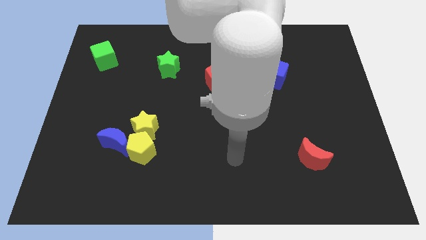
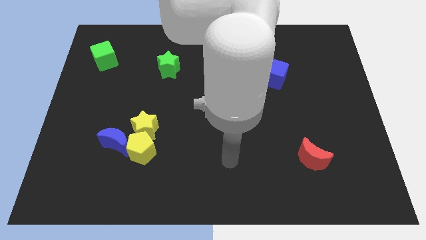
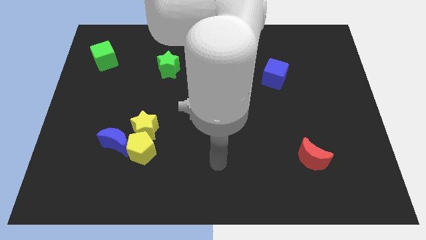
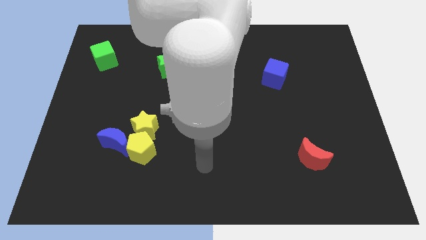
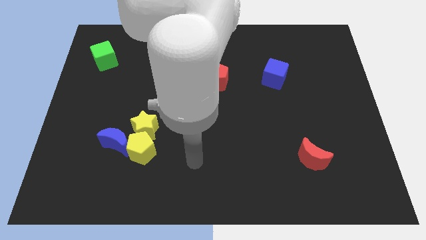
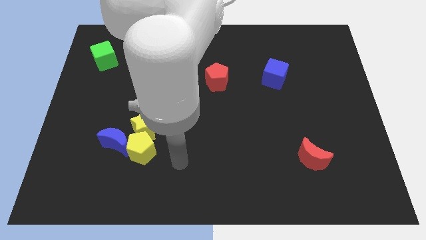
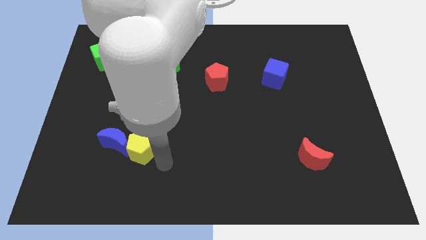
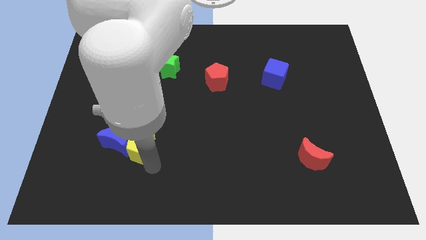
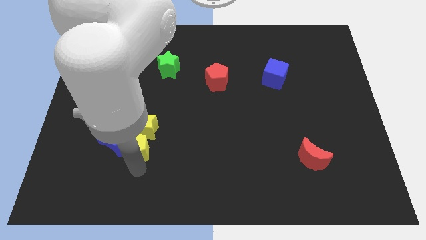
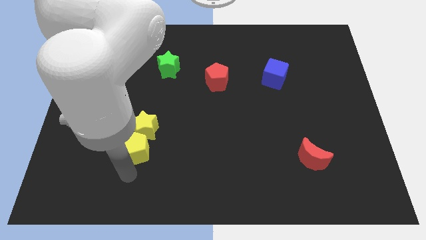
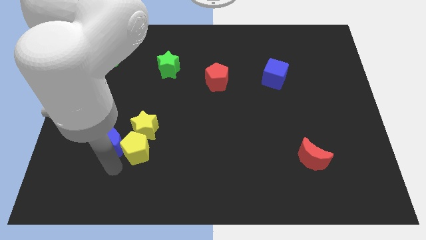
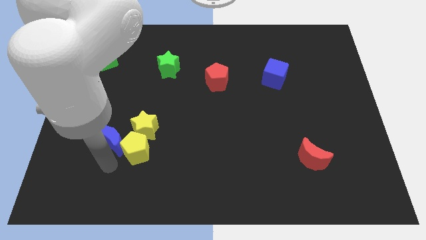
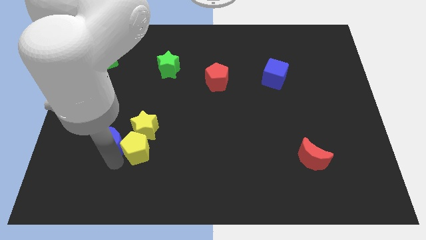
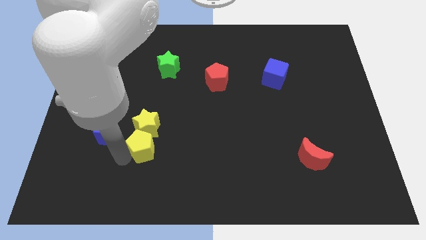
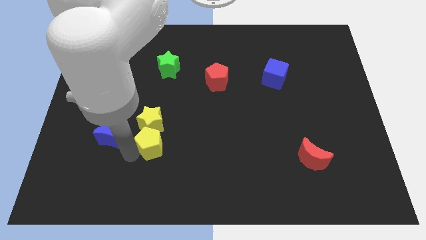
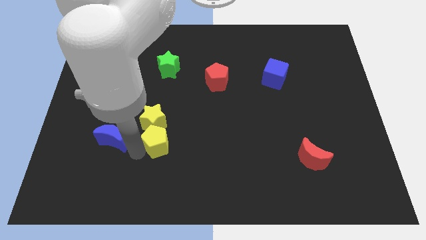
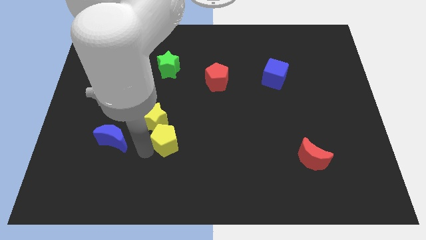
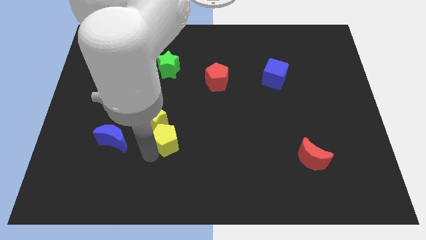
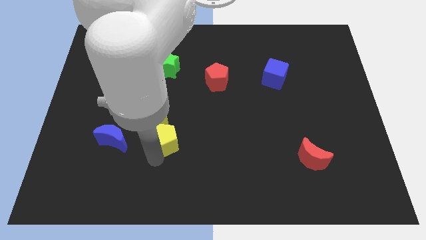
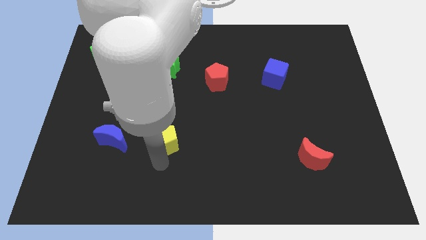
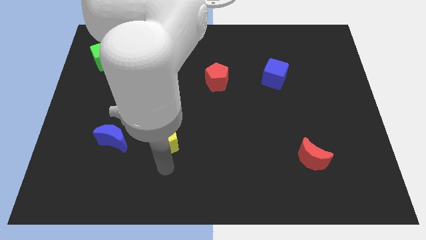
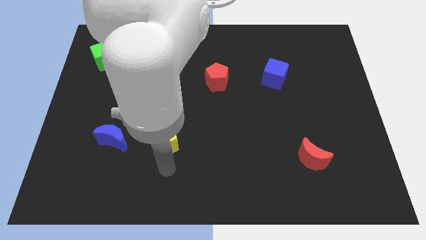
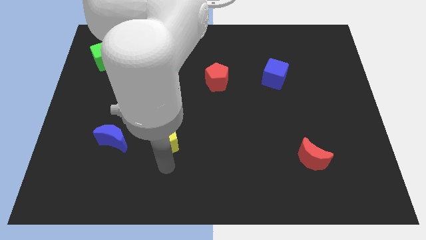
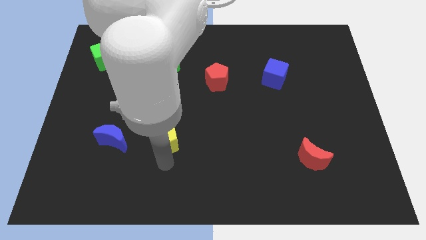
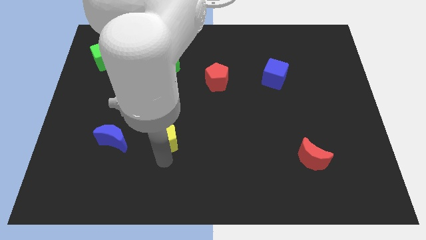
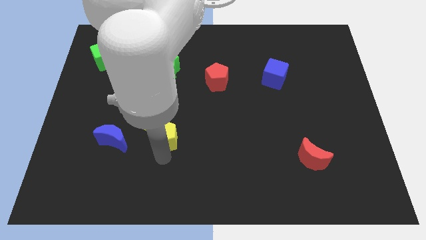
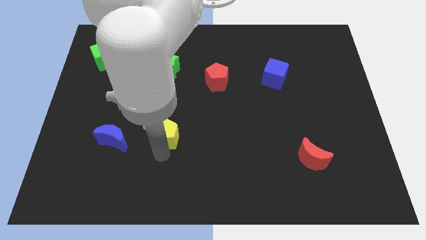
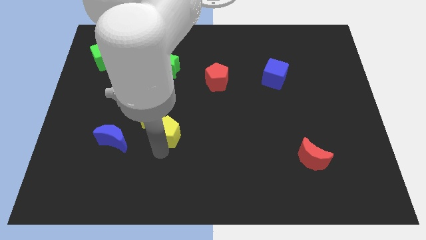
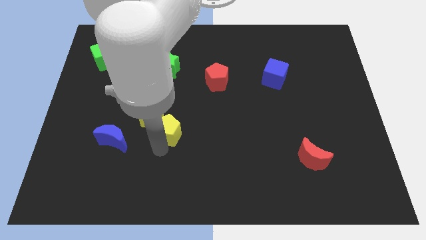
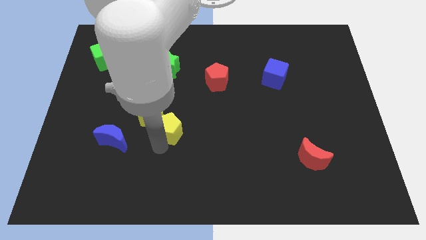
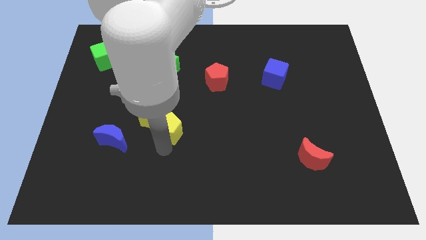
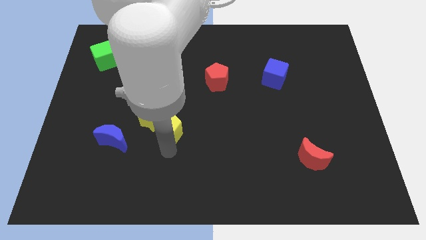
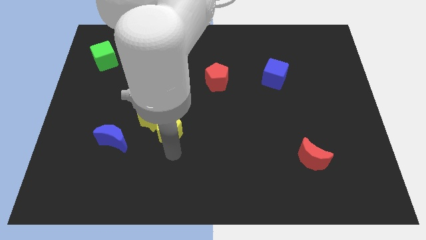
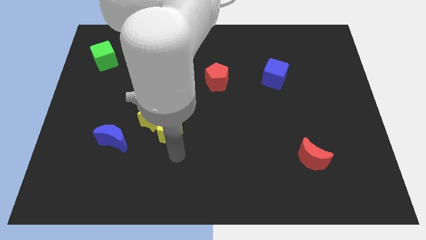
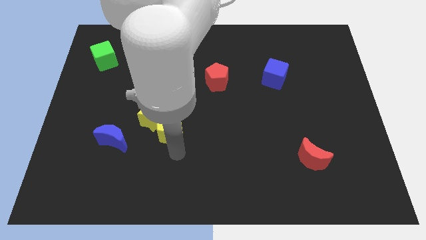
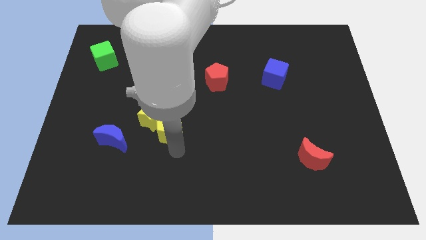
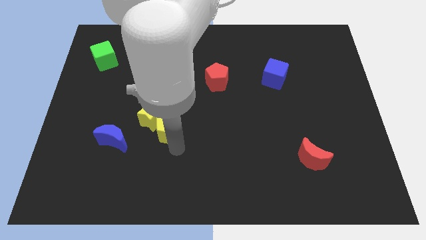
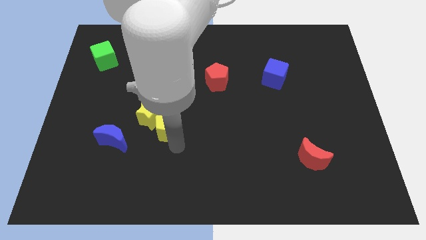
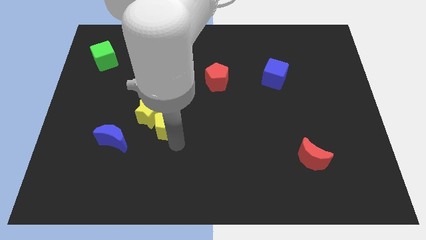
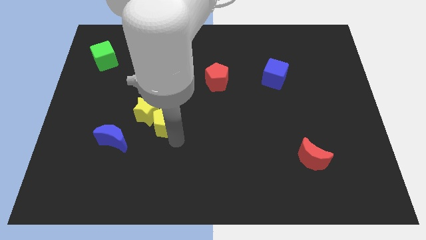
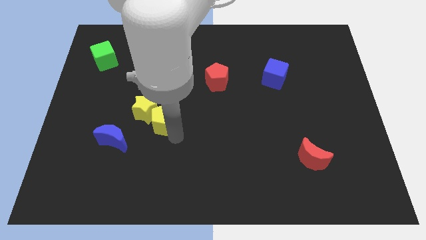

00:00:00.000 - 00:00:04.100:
slightly push the yellow pentagon up

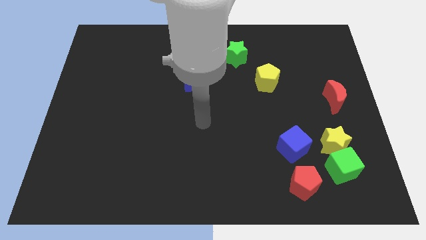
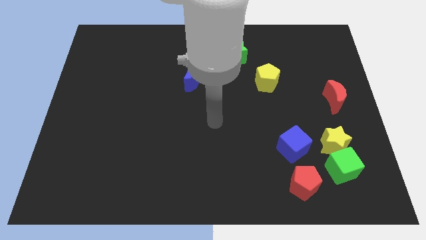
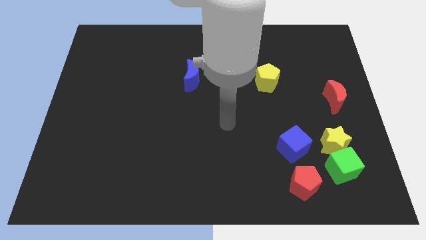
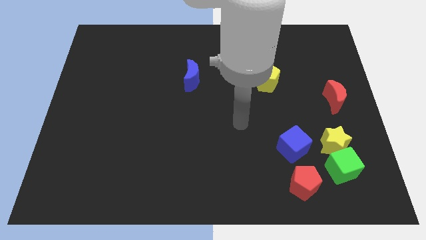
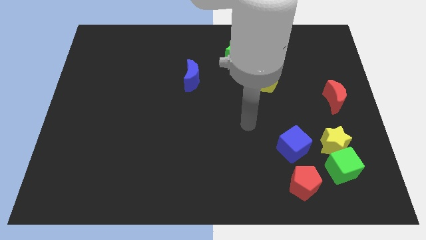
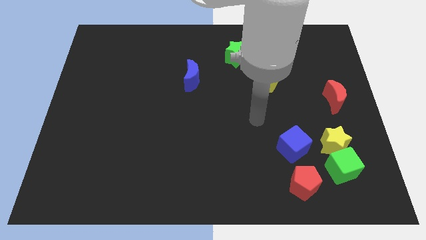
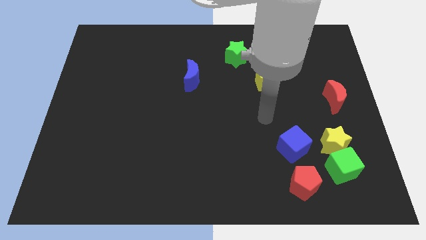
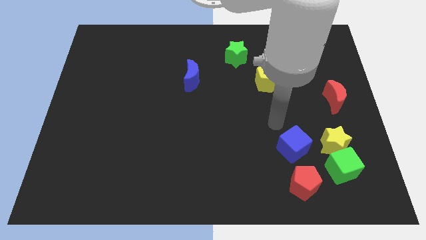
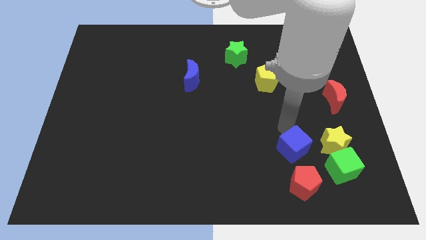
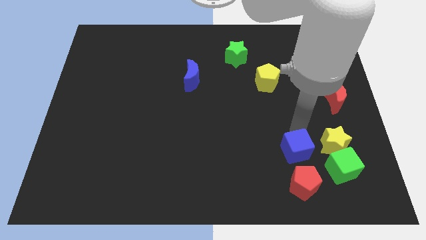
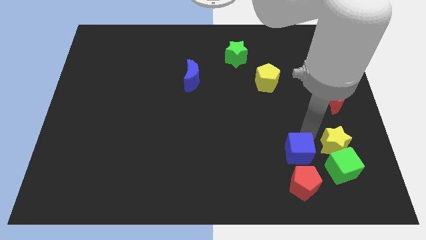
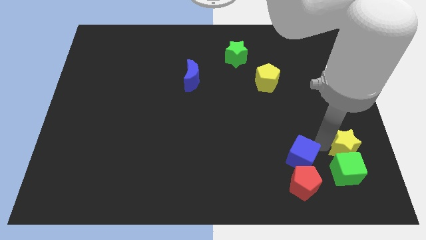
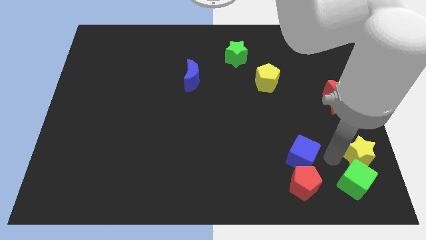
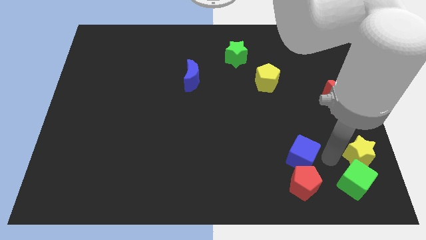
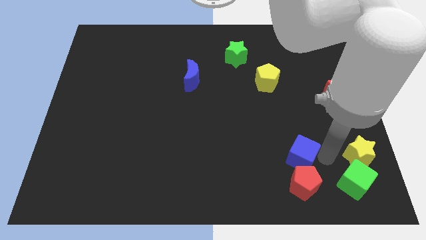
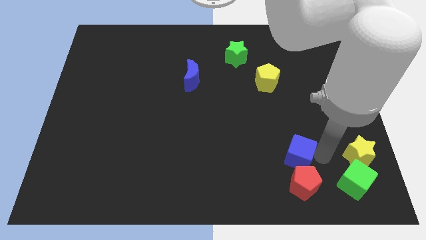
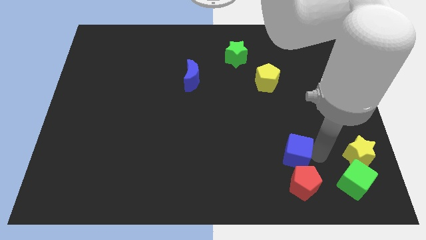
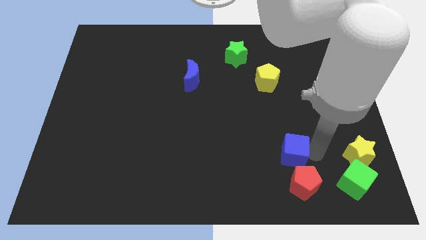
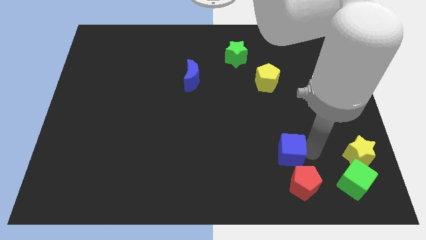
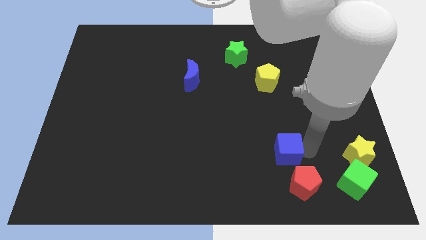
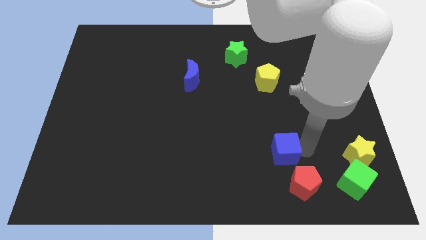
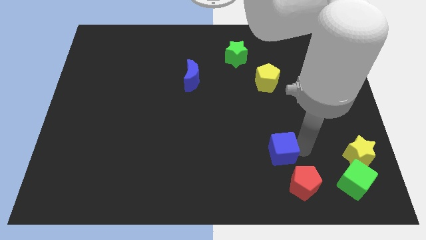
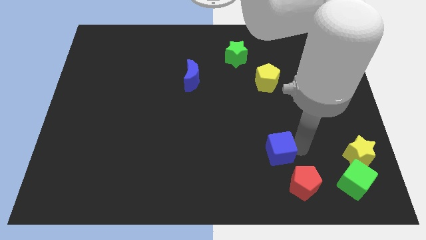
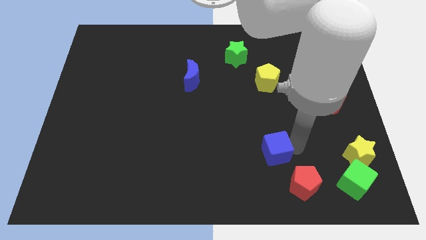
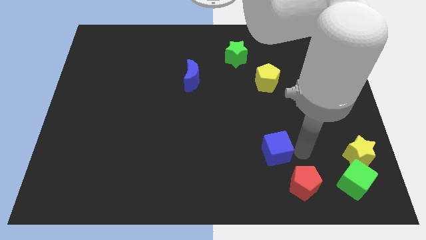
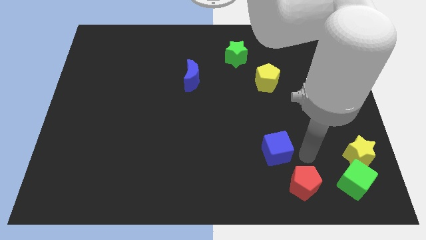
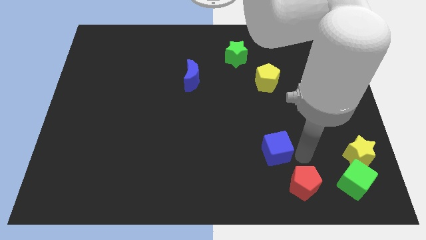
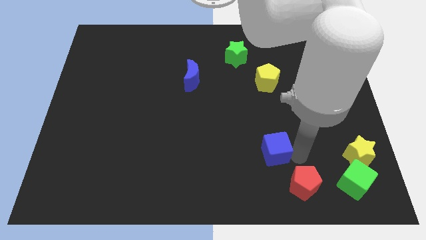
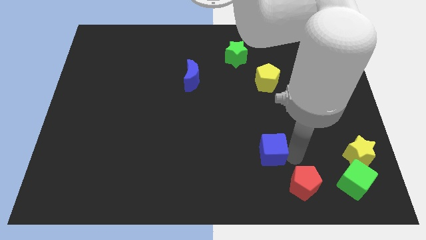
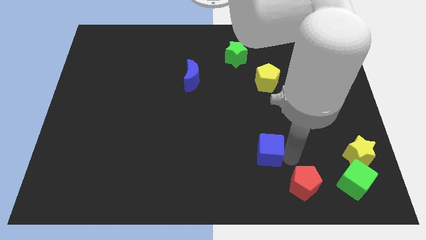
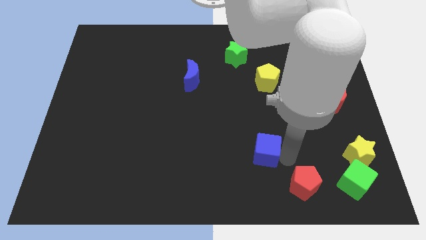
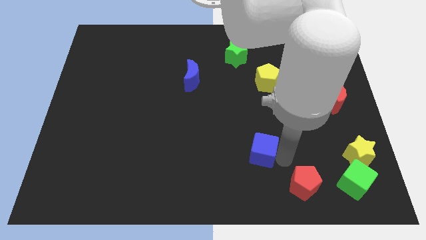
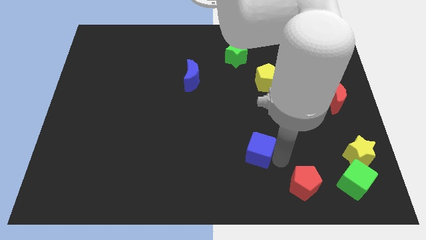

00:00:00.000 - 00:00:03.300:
slightly slide the blue cube left
